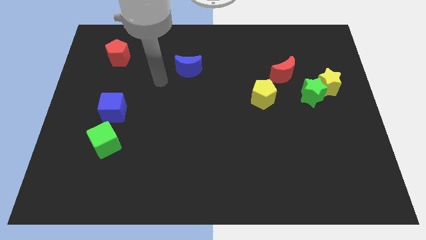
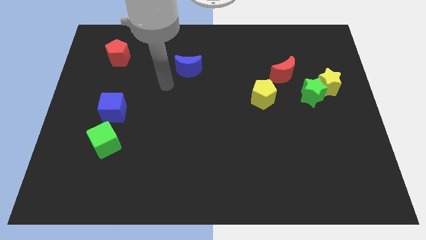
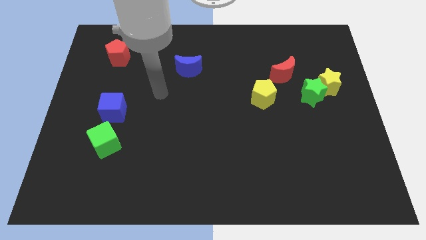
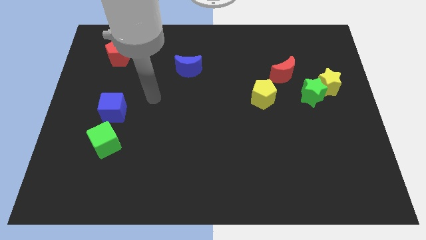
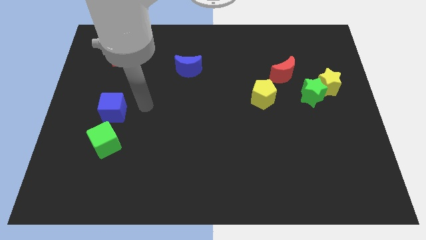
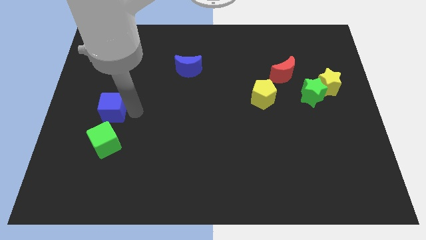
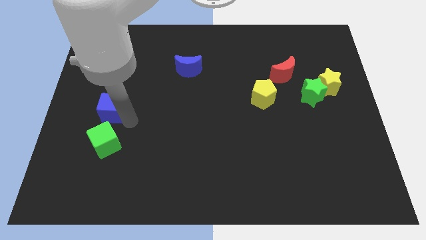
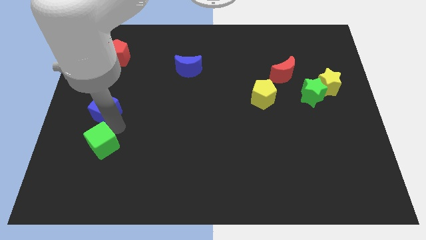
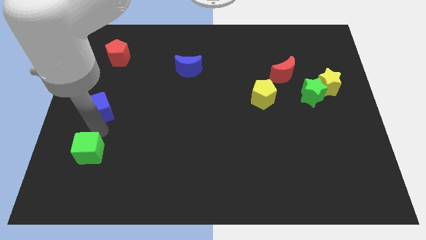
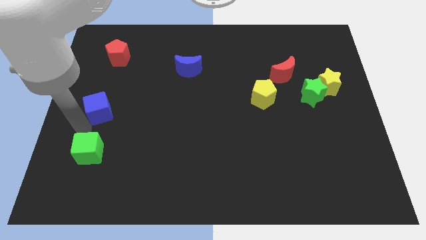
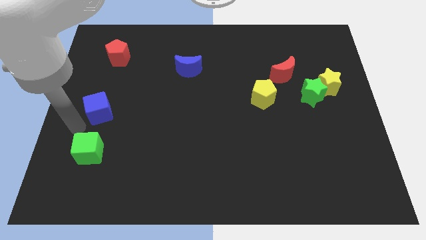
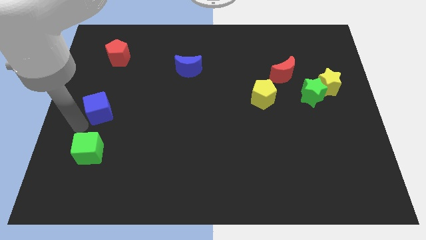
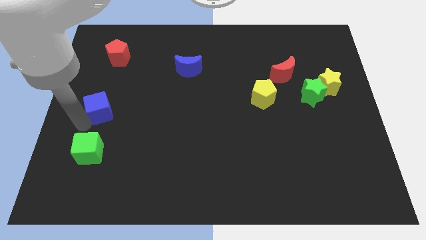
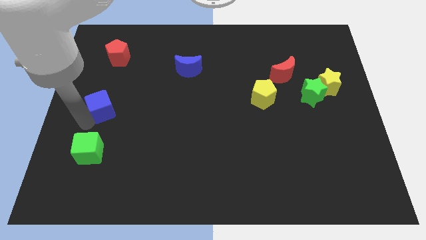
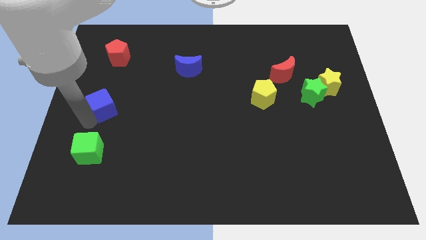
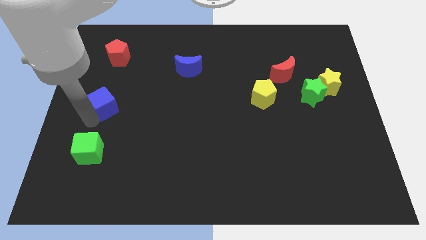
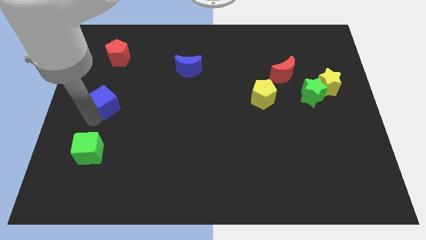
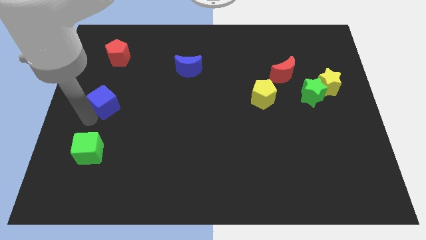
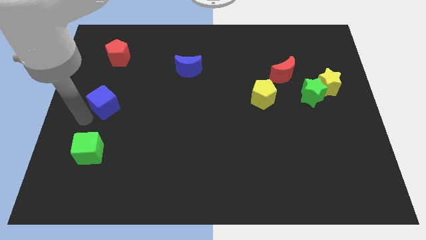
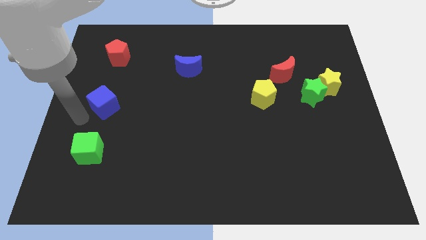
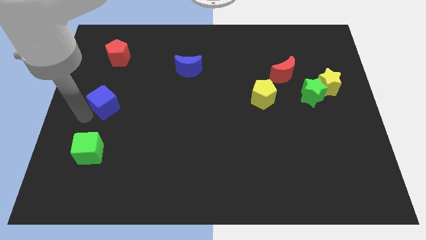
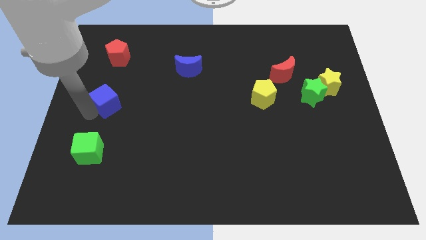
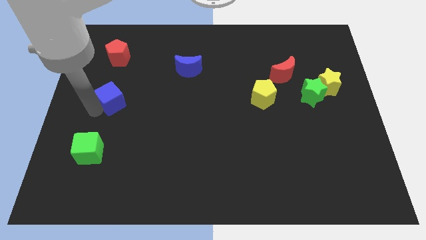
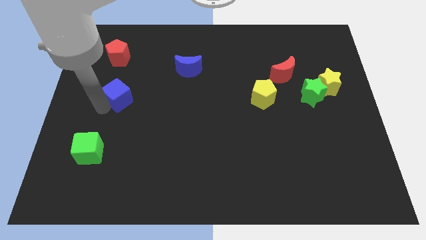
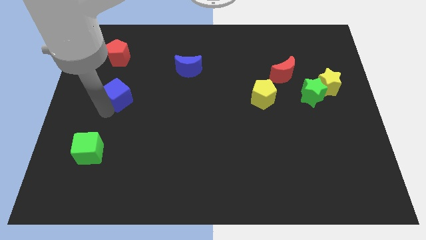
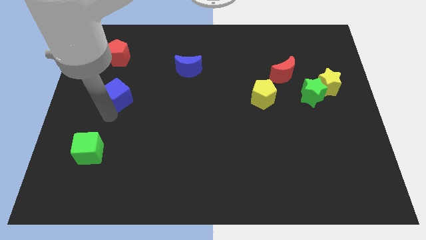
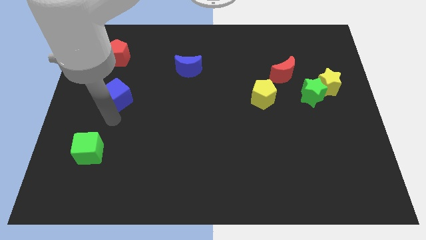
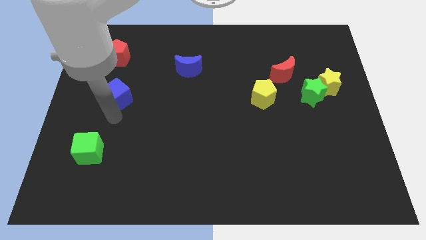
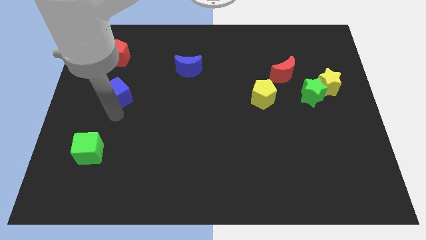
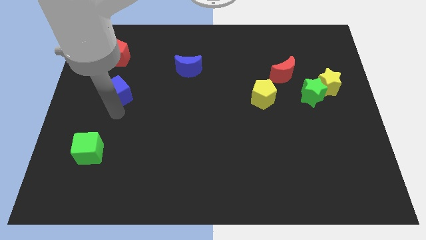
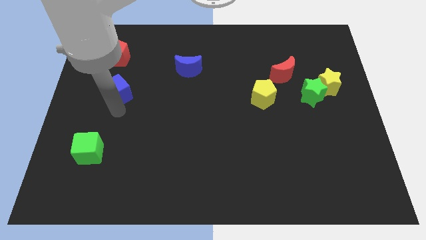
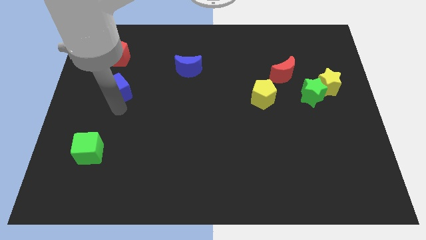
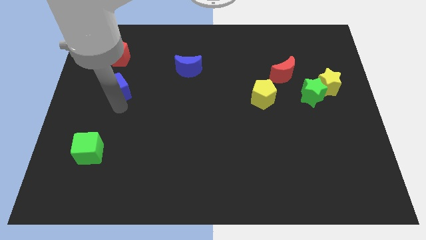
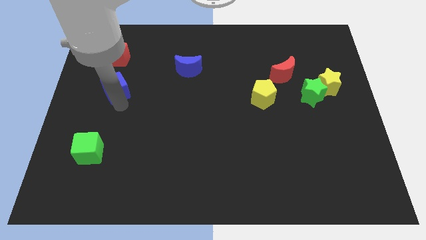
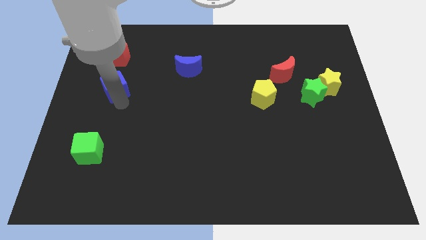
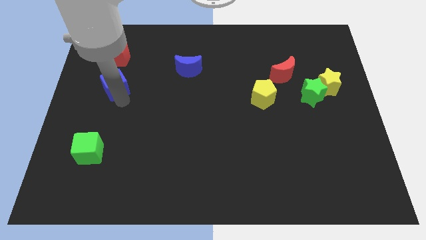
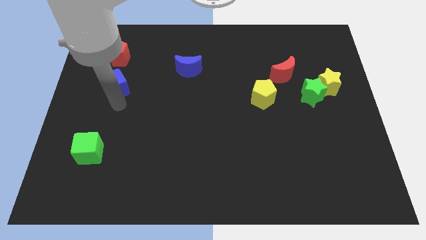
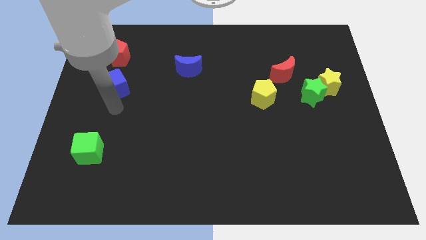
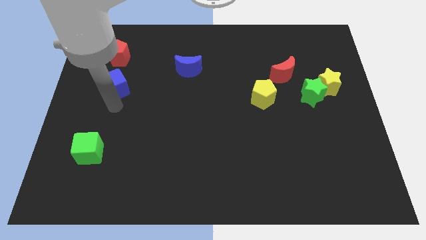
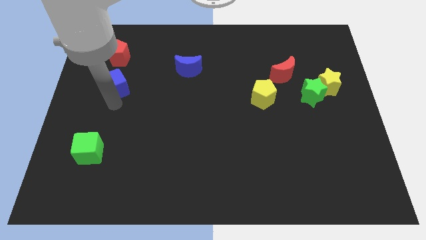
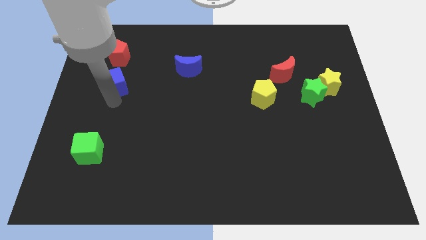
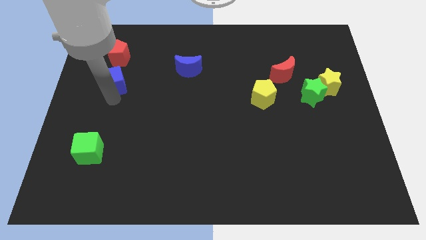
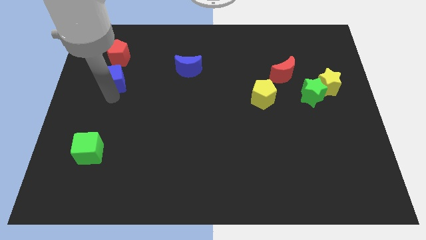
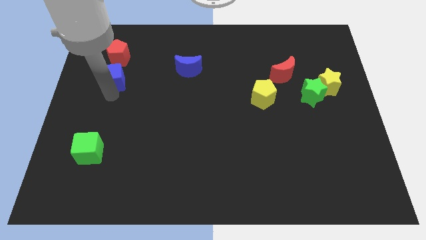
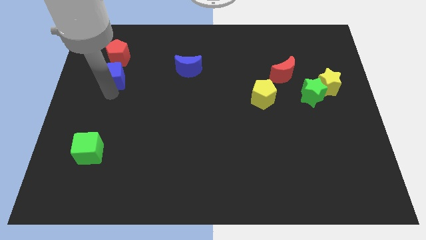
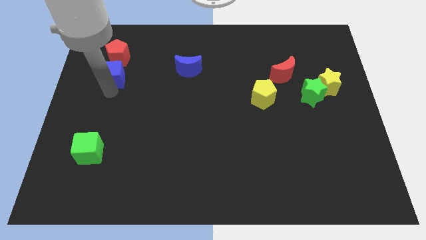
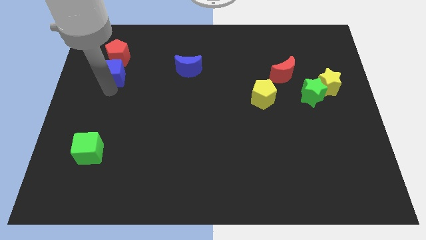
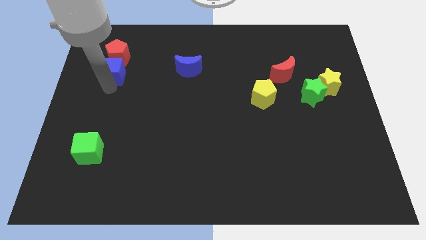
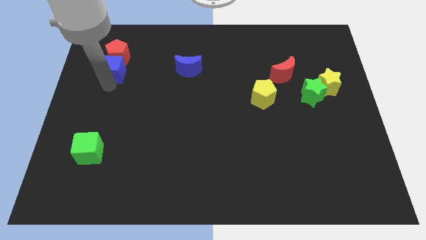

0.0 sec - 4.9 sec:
move the blue cube close to the red pentagon

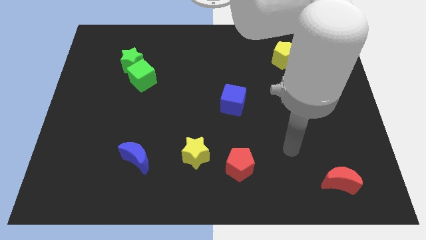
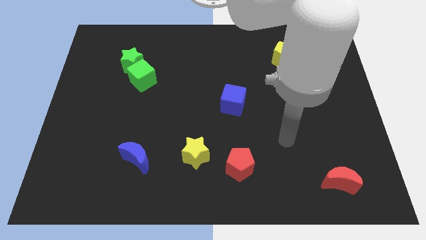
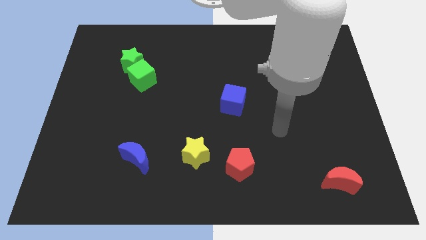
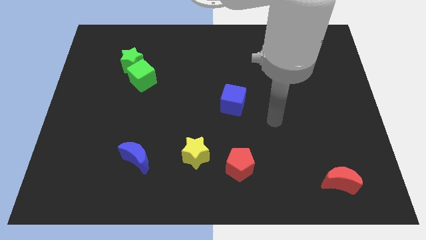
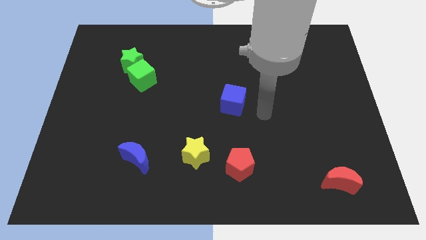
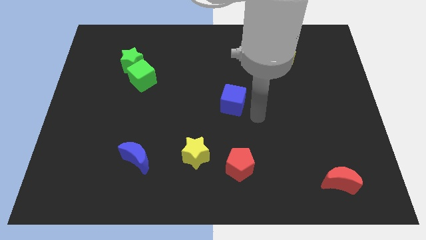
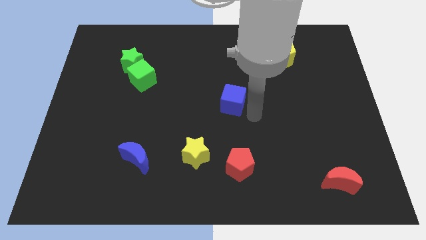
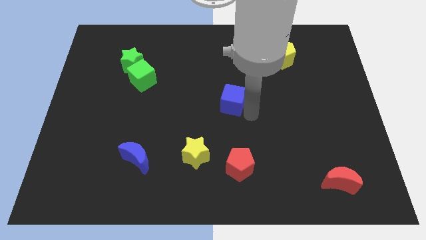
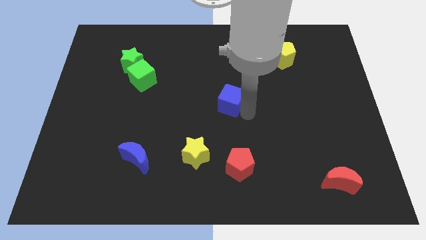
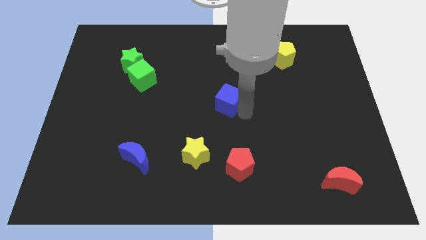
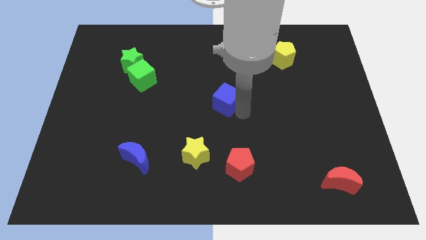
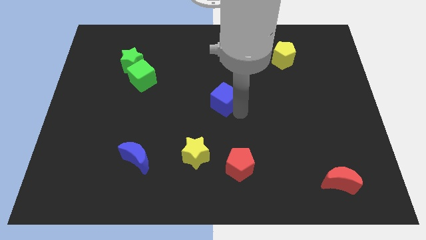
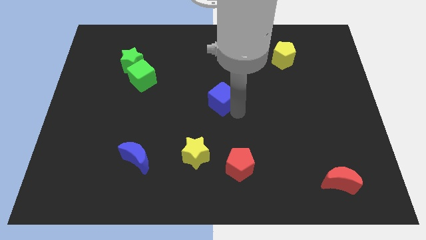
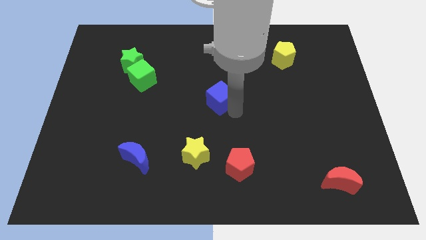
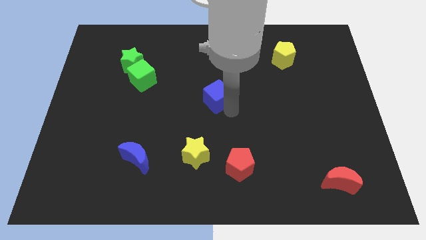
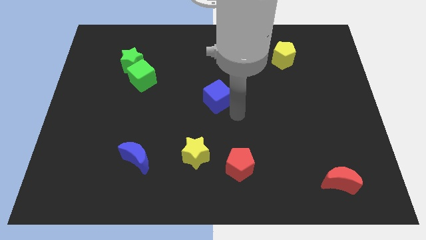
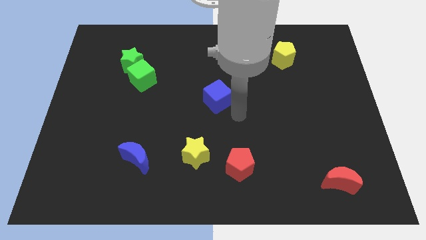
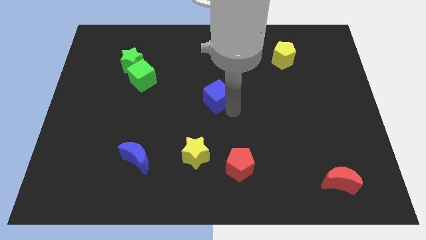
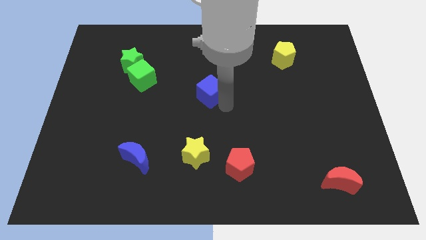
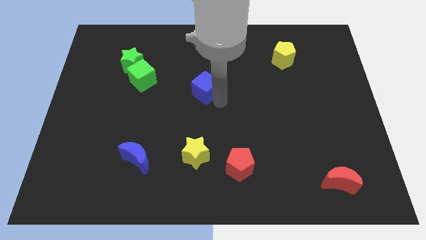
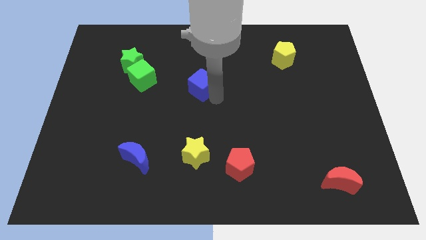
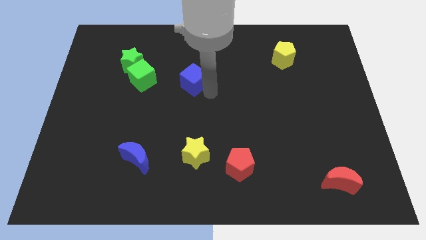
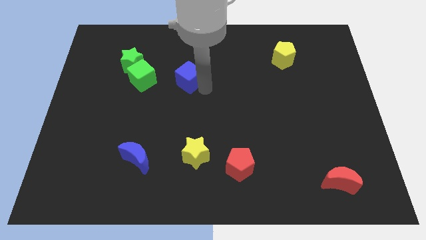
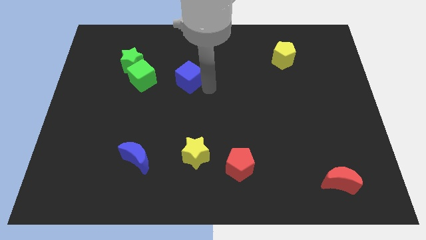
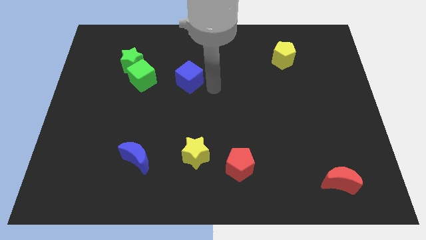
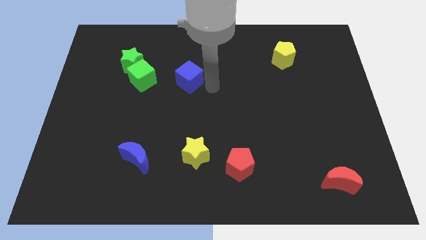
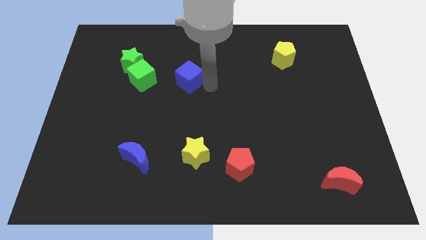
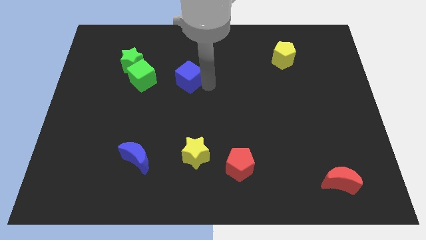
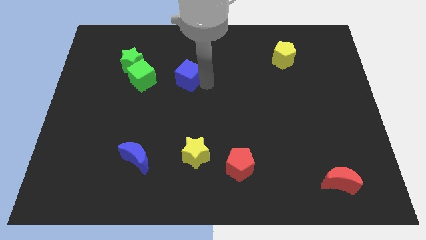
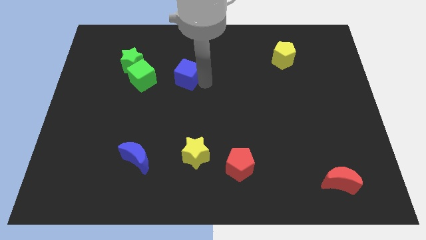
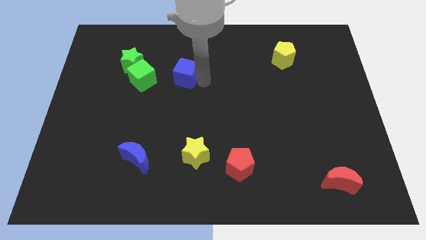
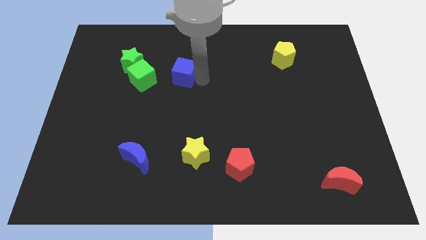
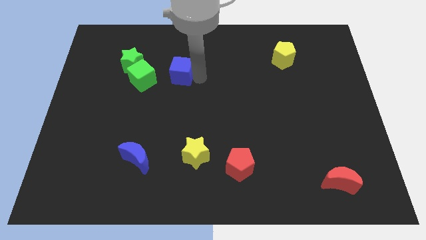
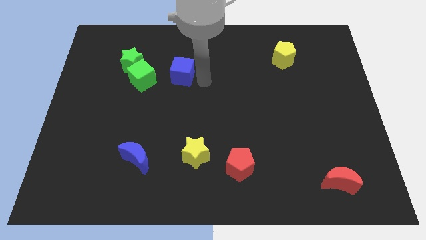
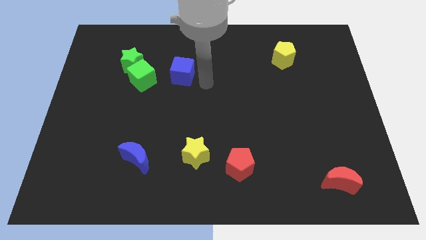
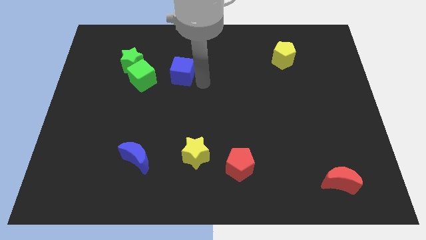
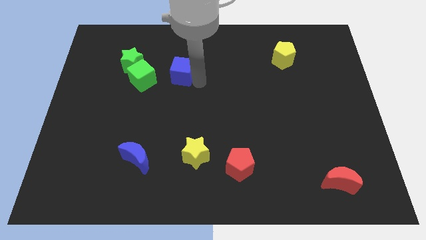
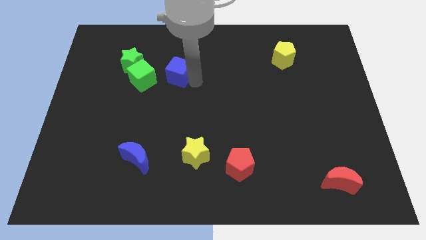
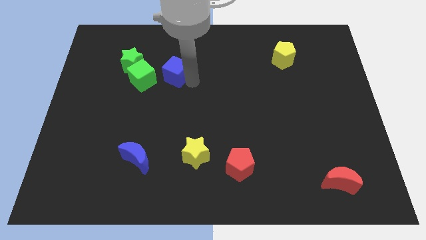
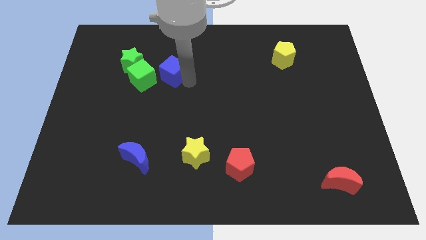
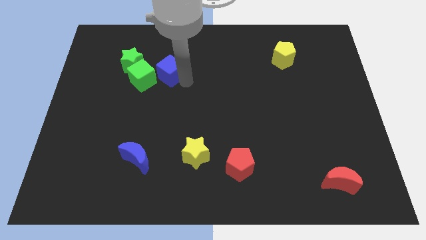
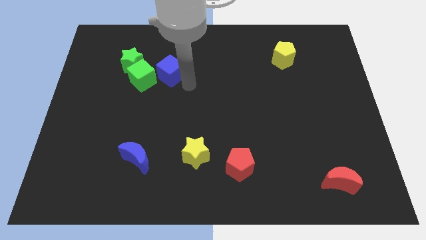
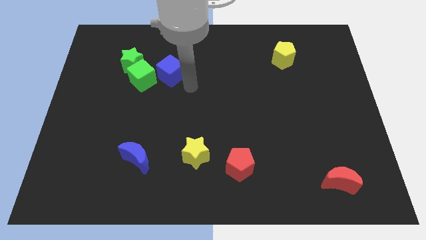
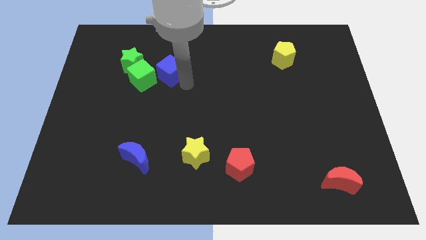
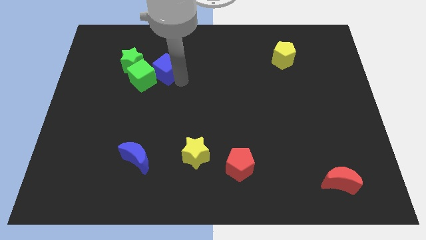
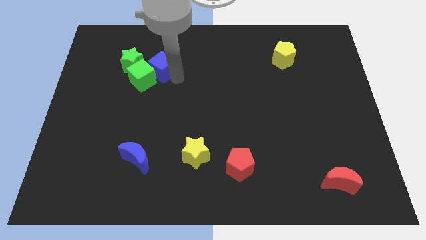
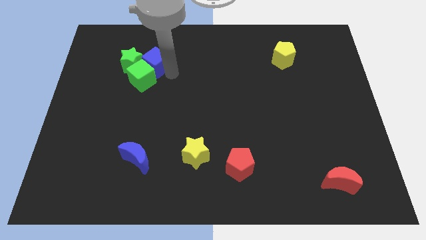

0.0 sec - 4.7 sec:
move the blue cube next to the green star
